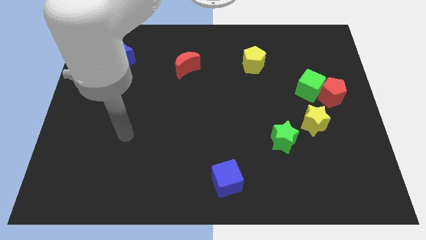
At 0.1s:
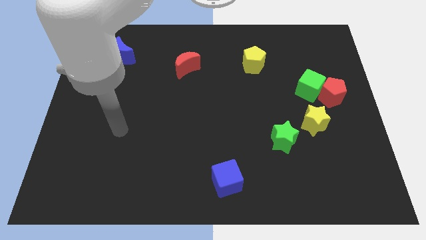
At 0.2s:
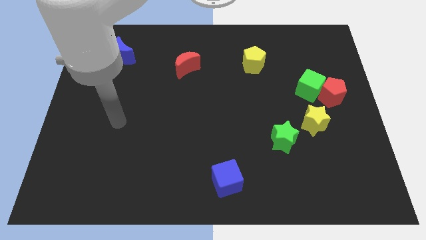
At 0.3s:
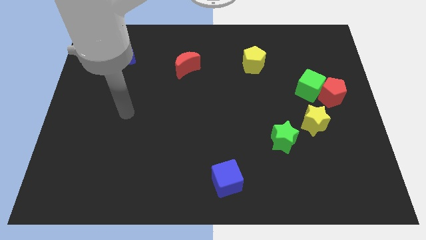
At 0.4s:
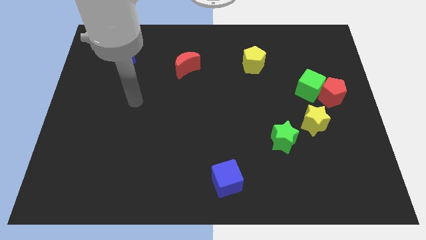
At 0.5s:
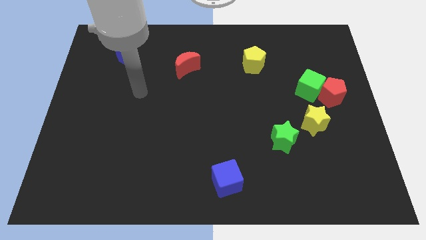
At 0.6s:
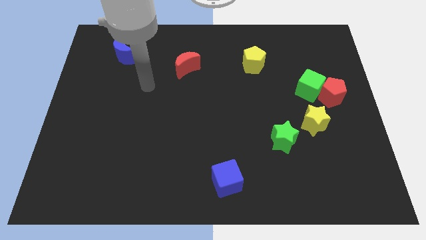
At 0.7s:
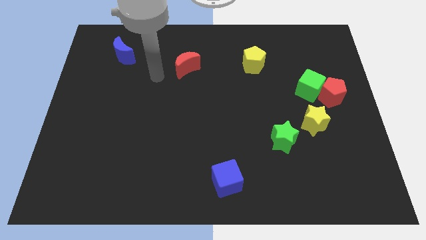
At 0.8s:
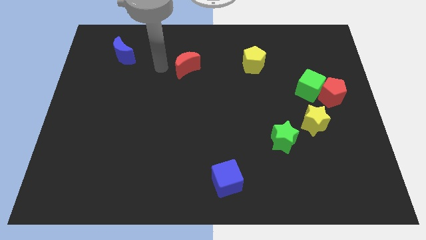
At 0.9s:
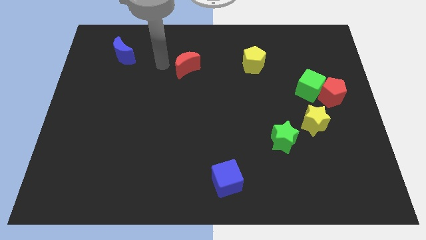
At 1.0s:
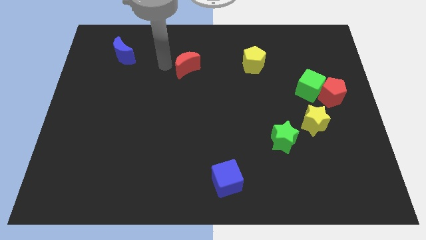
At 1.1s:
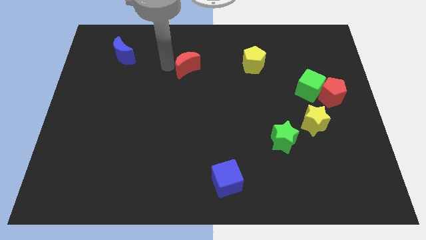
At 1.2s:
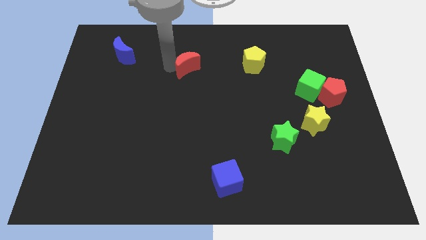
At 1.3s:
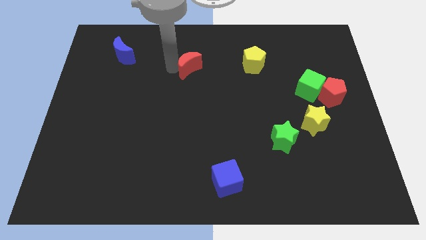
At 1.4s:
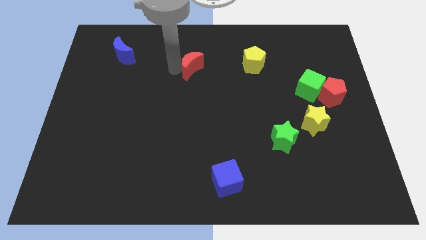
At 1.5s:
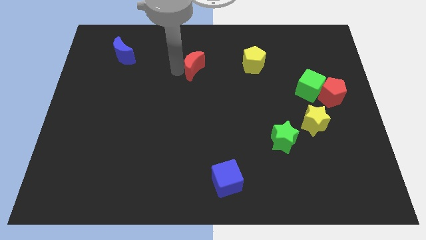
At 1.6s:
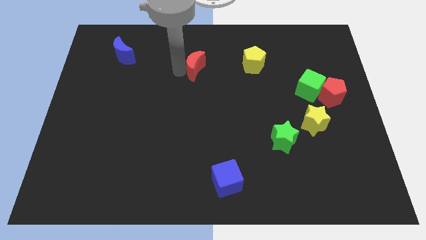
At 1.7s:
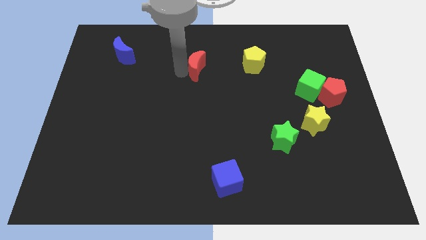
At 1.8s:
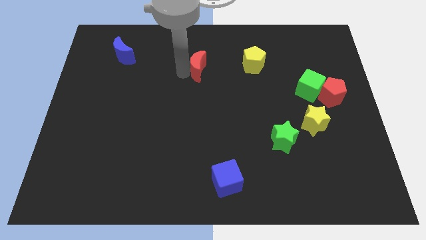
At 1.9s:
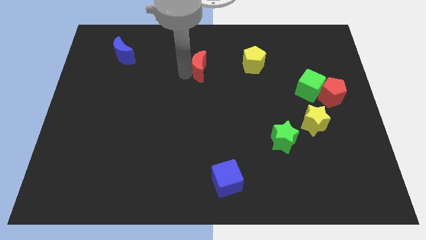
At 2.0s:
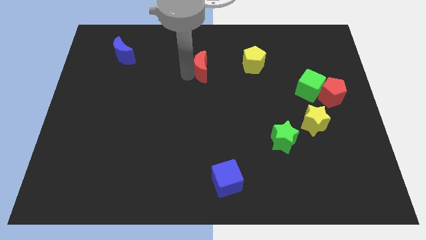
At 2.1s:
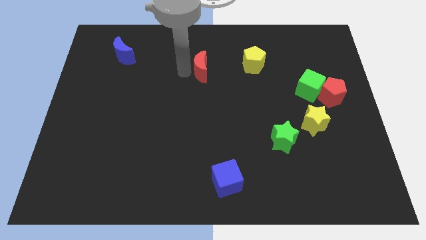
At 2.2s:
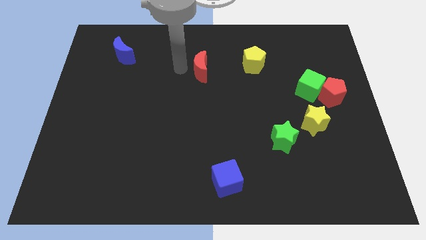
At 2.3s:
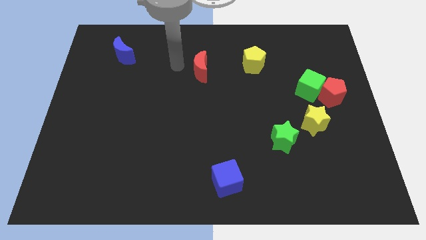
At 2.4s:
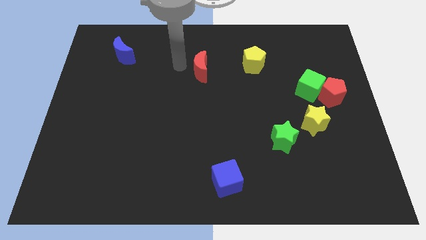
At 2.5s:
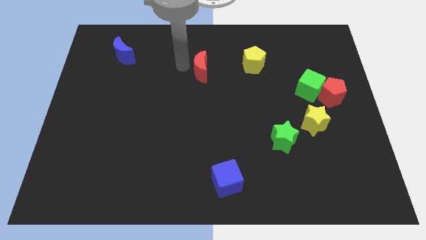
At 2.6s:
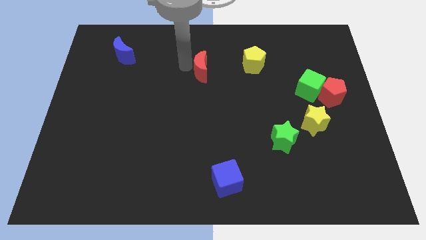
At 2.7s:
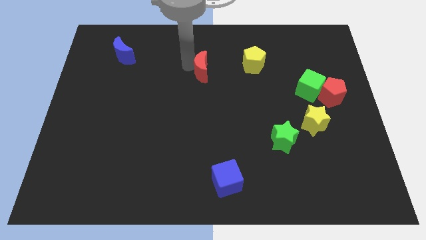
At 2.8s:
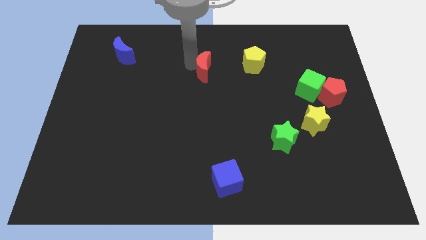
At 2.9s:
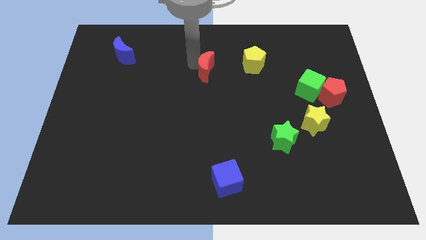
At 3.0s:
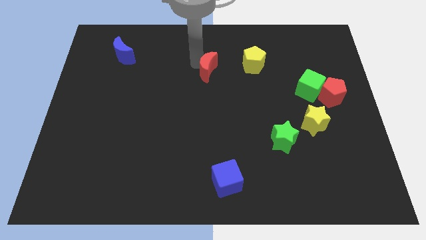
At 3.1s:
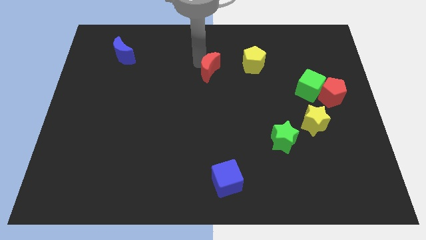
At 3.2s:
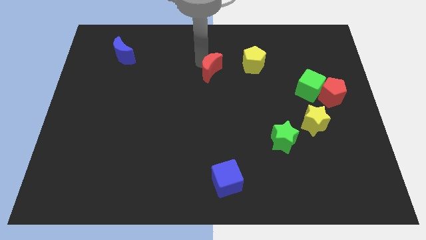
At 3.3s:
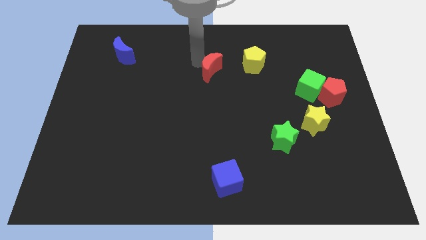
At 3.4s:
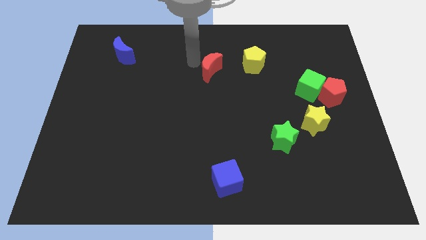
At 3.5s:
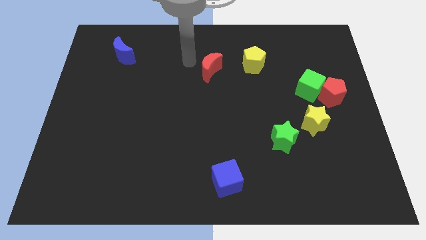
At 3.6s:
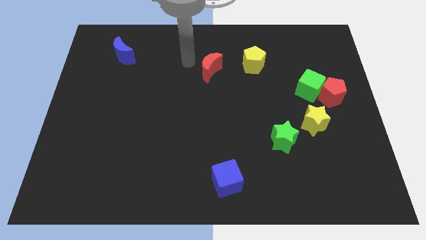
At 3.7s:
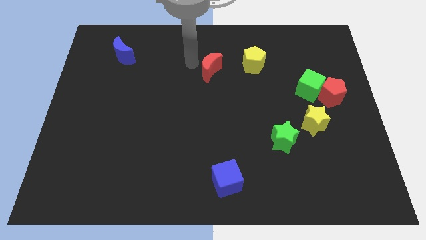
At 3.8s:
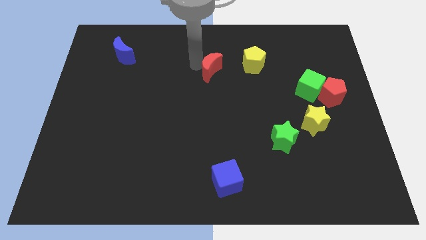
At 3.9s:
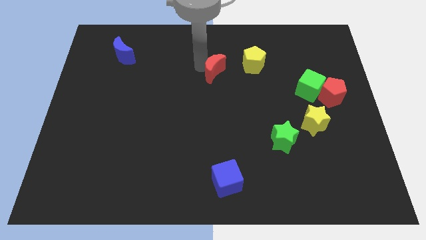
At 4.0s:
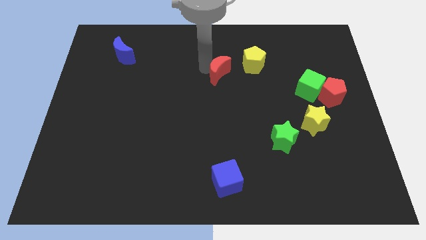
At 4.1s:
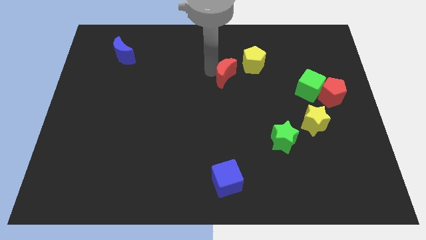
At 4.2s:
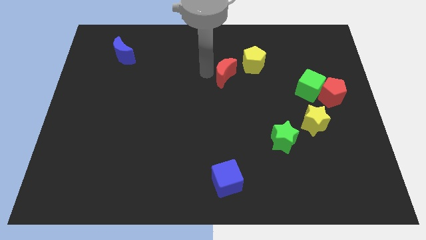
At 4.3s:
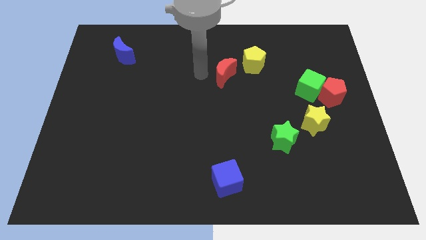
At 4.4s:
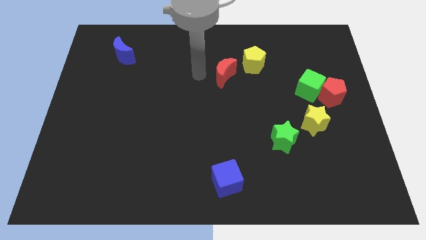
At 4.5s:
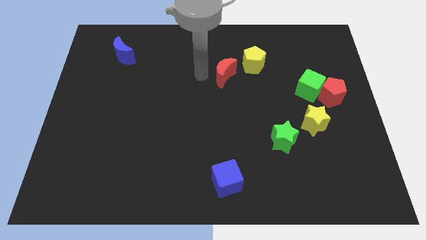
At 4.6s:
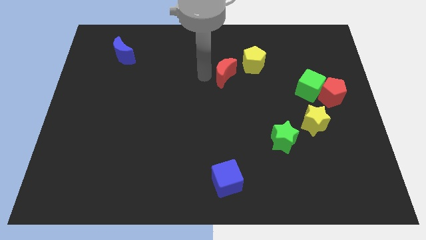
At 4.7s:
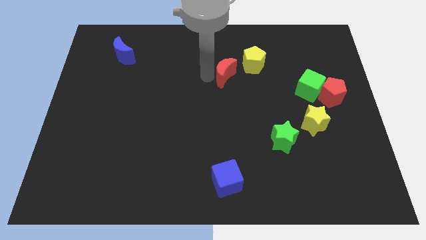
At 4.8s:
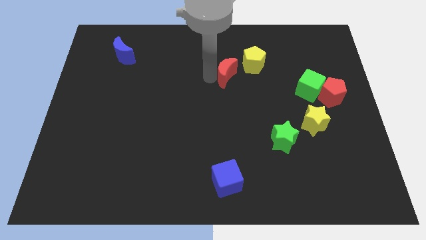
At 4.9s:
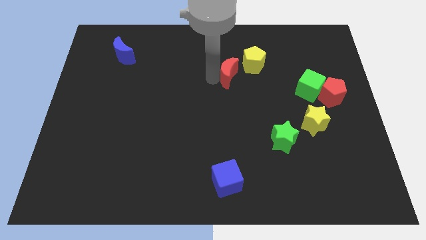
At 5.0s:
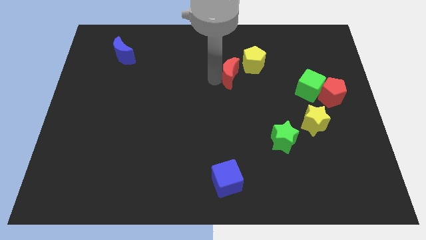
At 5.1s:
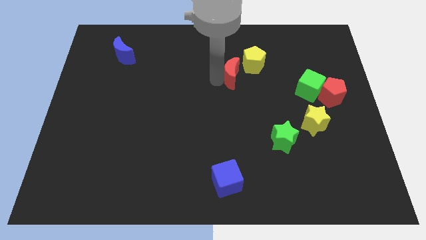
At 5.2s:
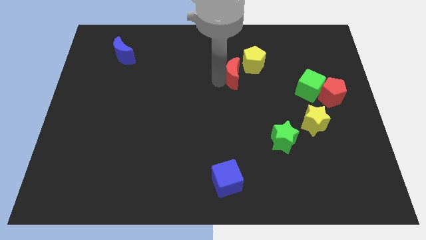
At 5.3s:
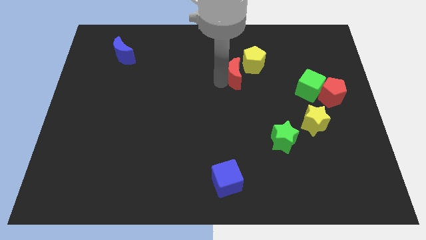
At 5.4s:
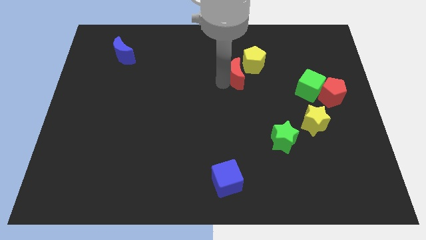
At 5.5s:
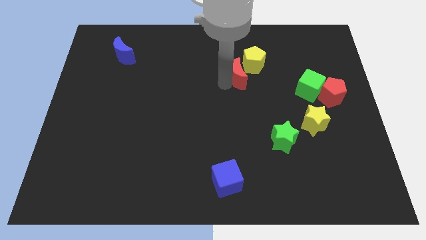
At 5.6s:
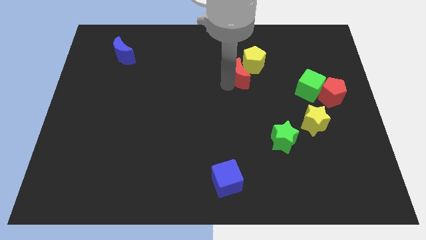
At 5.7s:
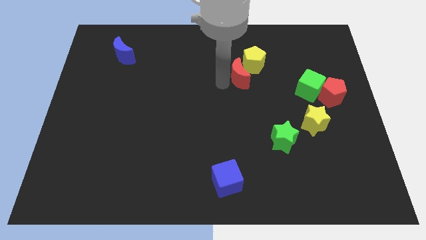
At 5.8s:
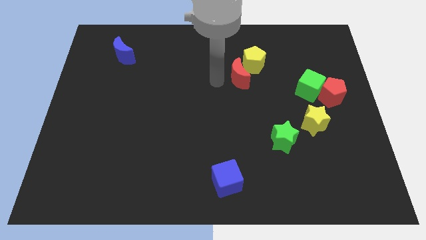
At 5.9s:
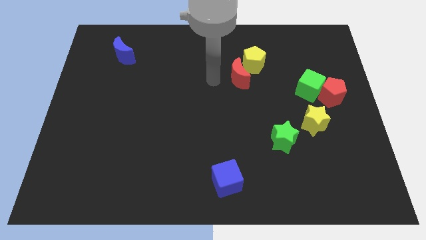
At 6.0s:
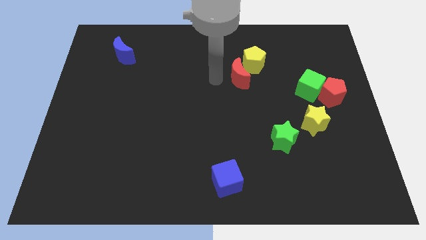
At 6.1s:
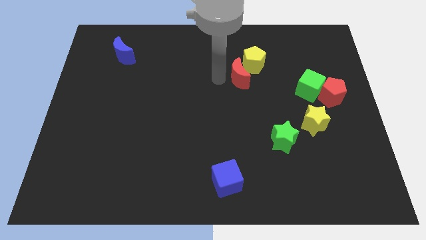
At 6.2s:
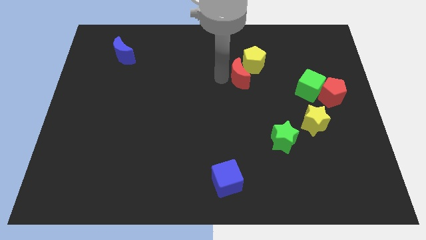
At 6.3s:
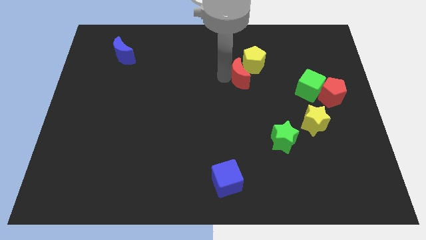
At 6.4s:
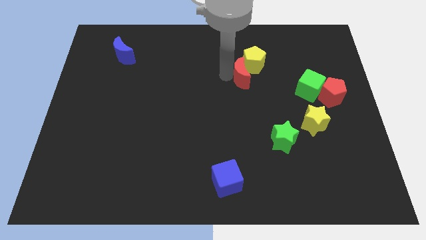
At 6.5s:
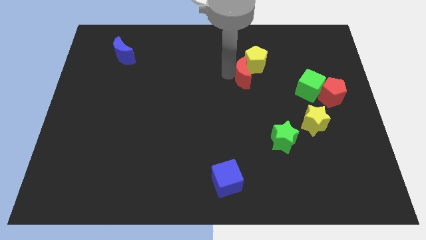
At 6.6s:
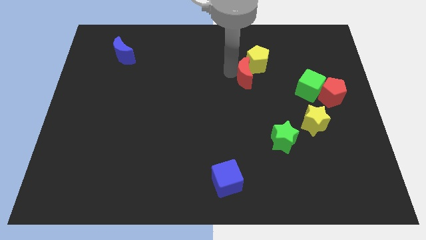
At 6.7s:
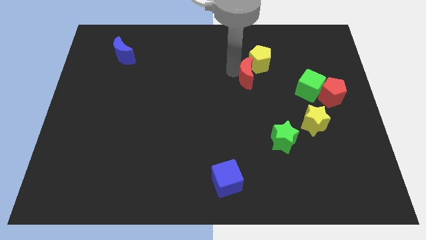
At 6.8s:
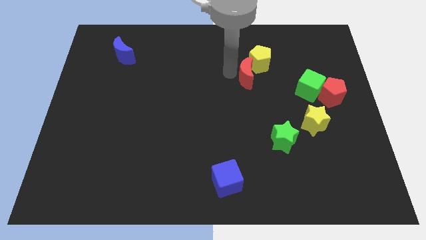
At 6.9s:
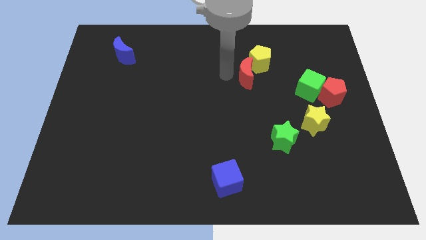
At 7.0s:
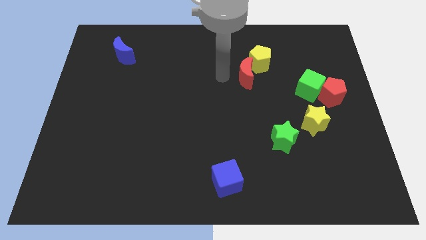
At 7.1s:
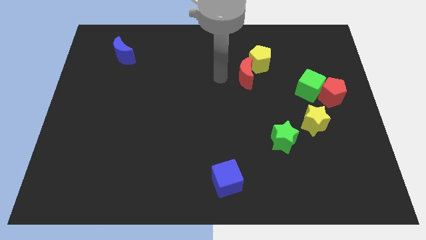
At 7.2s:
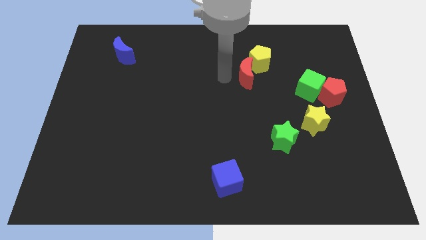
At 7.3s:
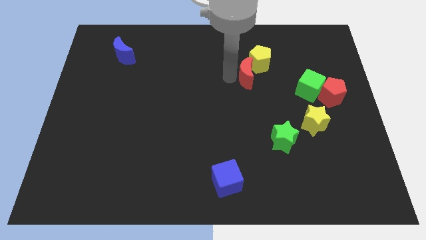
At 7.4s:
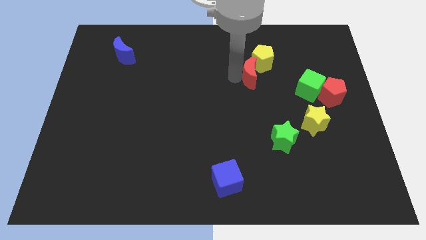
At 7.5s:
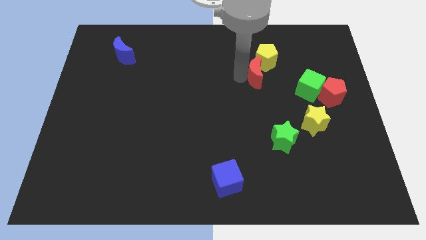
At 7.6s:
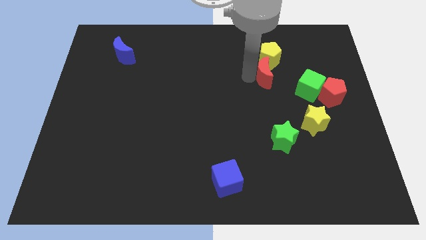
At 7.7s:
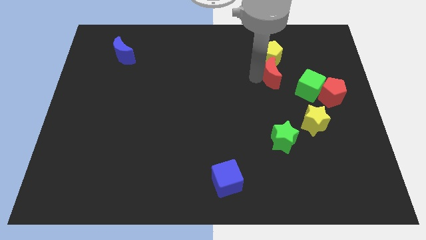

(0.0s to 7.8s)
move the red moon right
